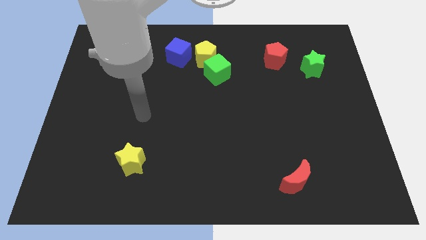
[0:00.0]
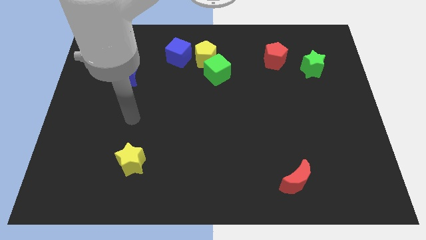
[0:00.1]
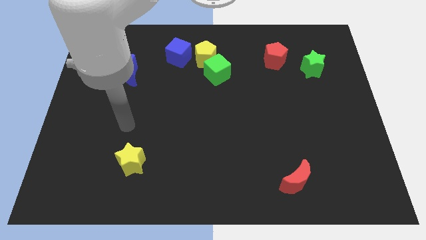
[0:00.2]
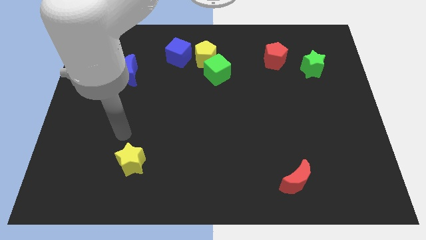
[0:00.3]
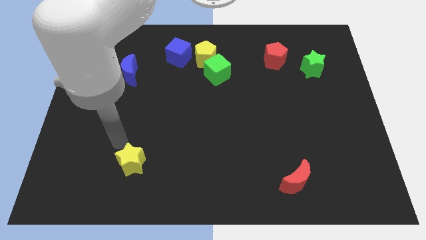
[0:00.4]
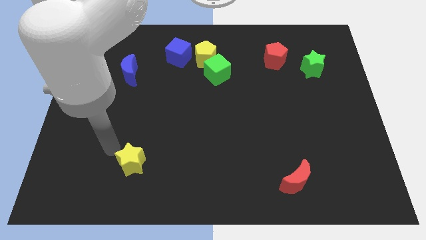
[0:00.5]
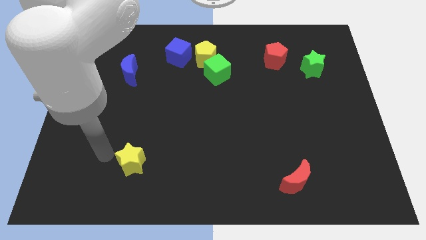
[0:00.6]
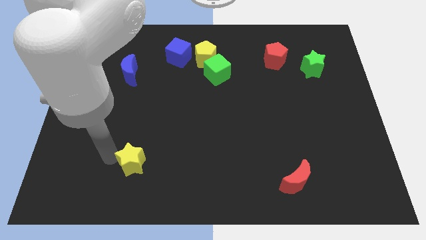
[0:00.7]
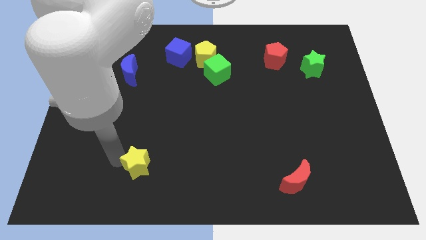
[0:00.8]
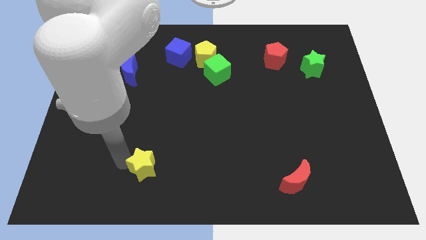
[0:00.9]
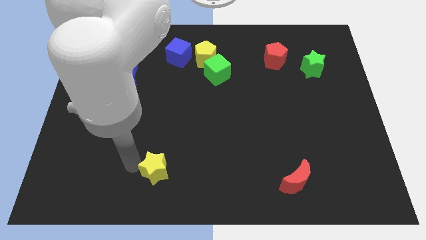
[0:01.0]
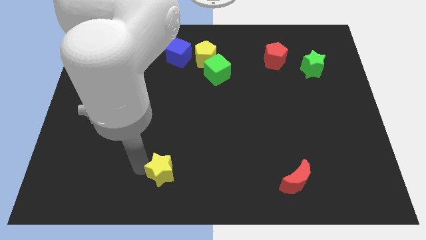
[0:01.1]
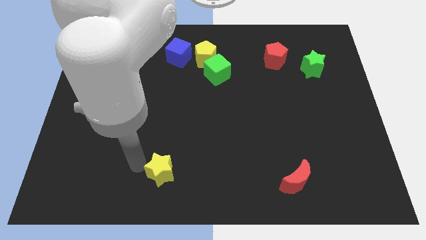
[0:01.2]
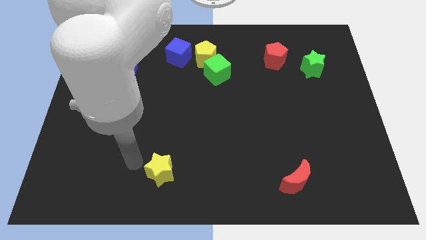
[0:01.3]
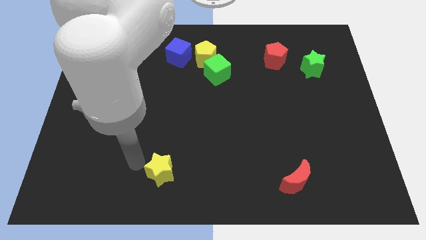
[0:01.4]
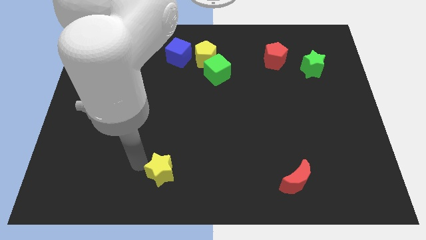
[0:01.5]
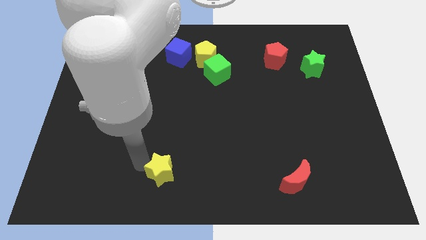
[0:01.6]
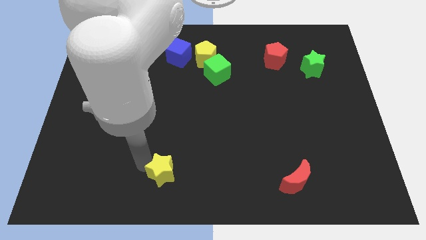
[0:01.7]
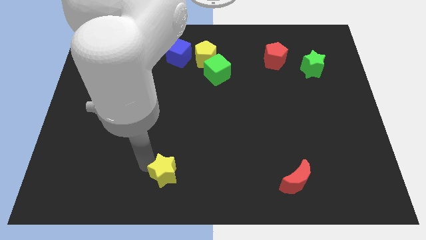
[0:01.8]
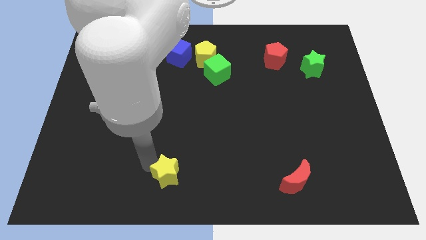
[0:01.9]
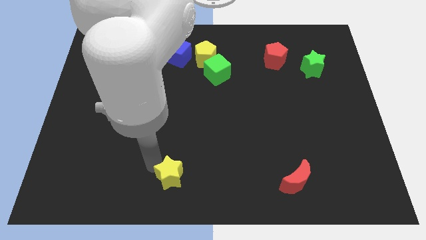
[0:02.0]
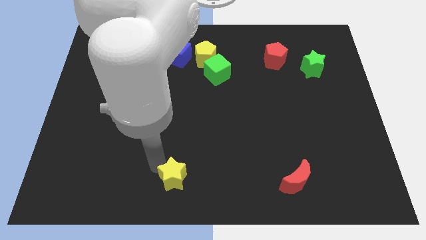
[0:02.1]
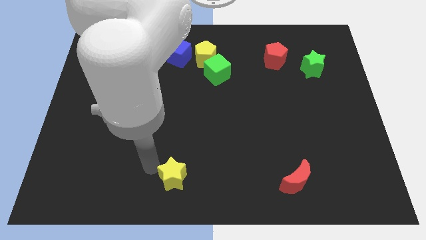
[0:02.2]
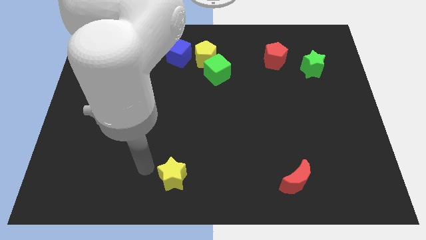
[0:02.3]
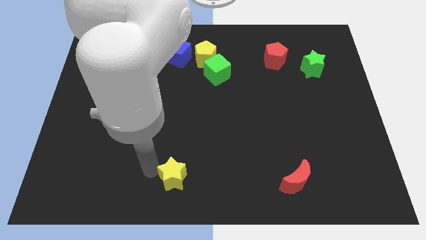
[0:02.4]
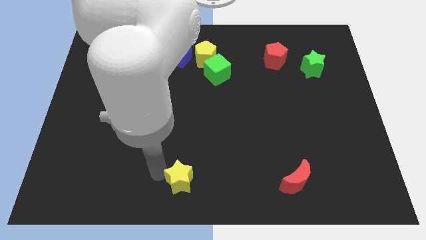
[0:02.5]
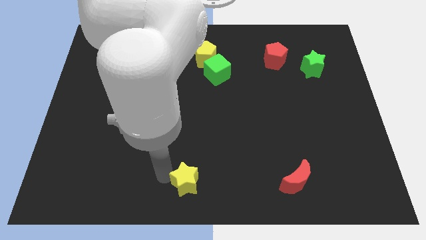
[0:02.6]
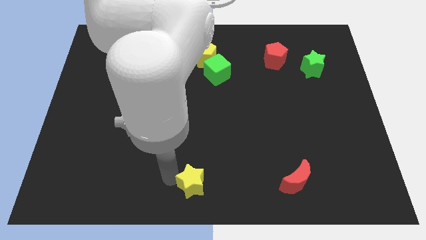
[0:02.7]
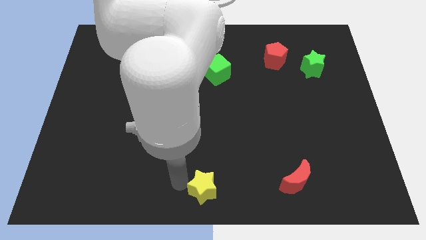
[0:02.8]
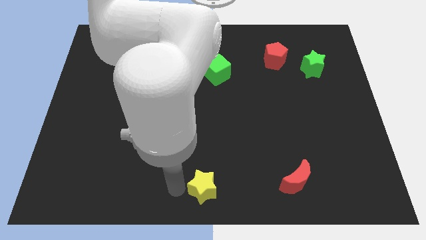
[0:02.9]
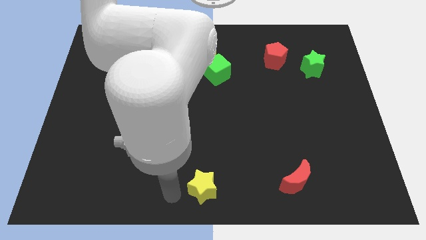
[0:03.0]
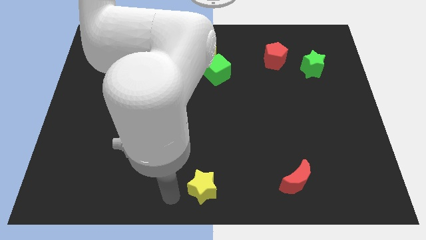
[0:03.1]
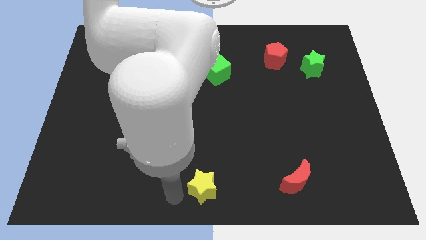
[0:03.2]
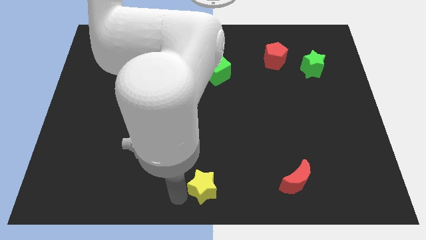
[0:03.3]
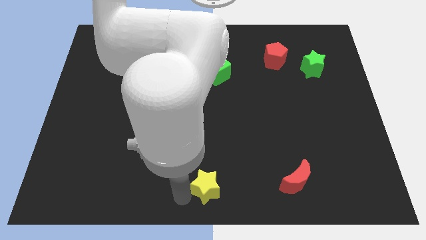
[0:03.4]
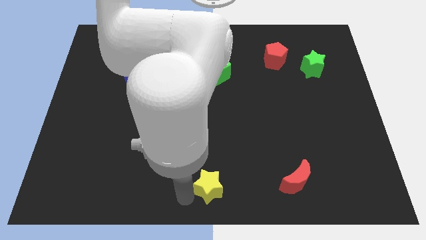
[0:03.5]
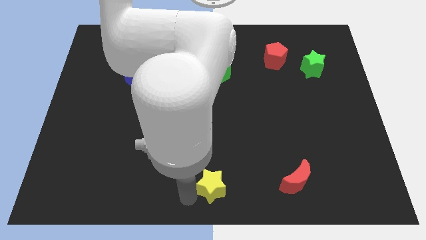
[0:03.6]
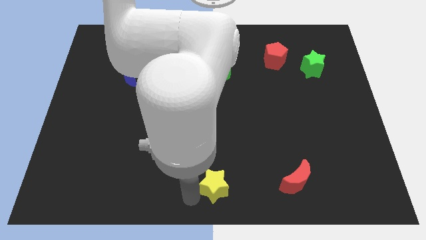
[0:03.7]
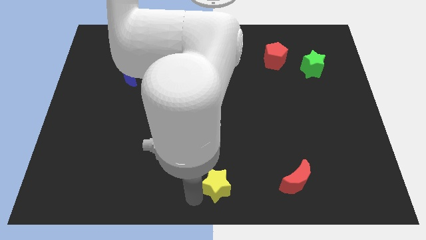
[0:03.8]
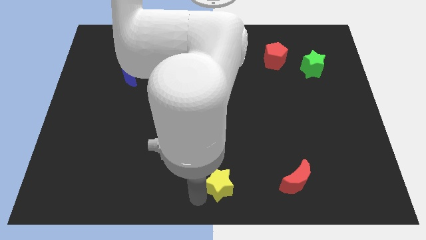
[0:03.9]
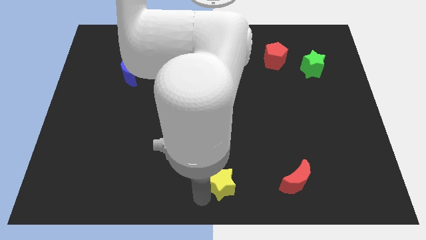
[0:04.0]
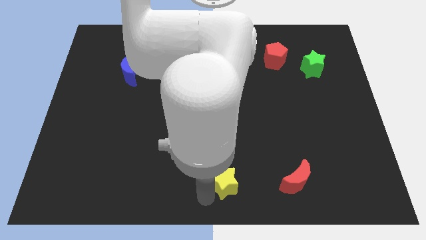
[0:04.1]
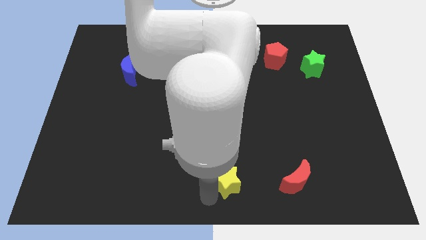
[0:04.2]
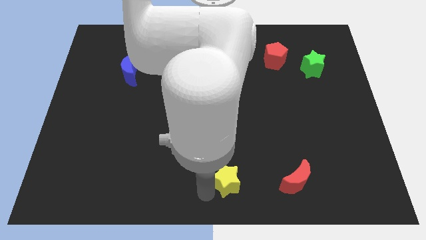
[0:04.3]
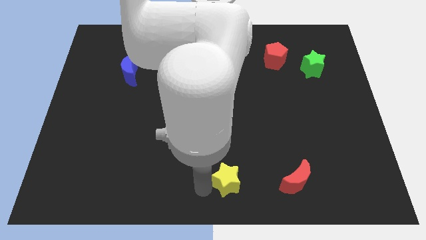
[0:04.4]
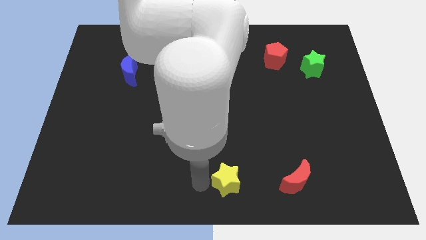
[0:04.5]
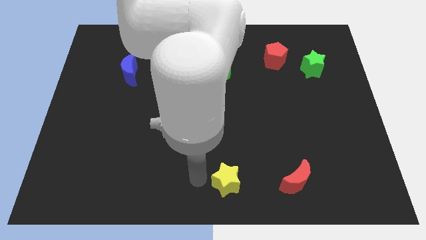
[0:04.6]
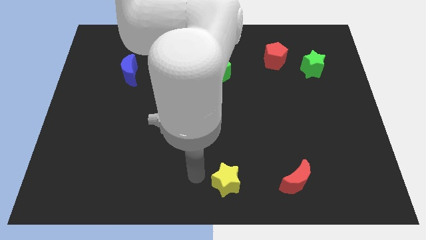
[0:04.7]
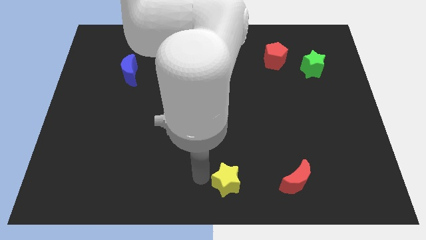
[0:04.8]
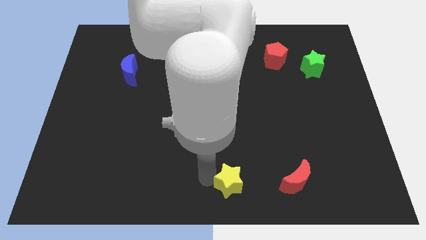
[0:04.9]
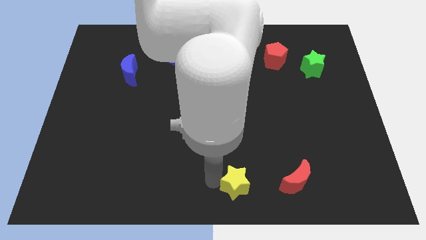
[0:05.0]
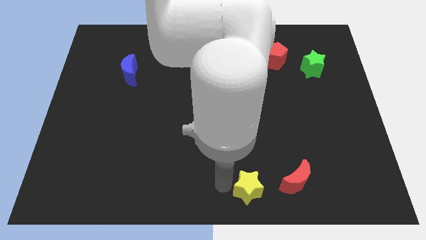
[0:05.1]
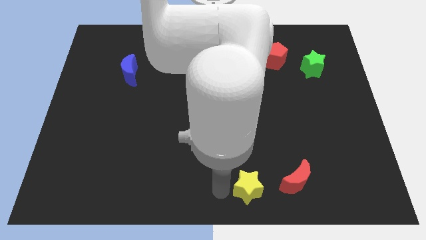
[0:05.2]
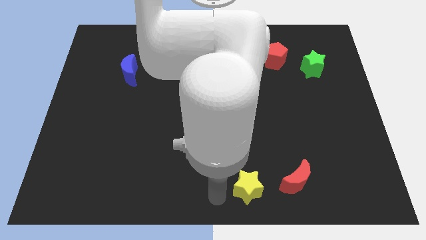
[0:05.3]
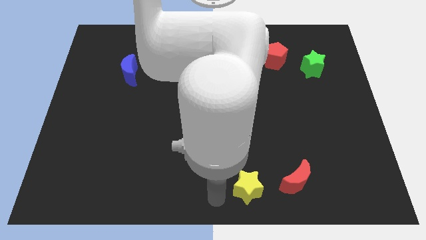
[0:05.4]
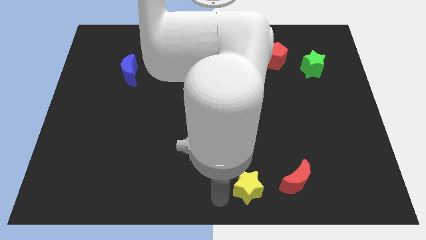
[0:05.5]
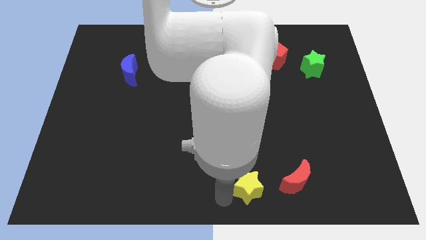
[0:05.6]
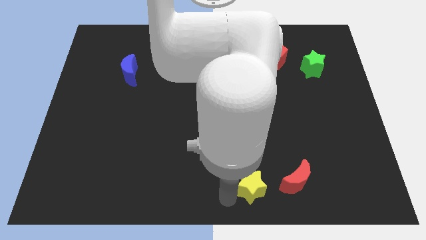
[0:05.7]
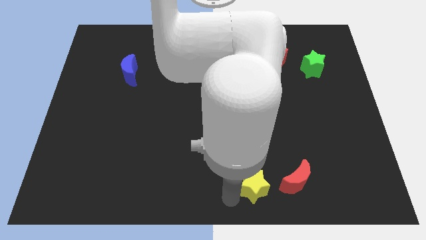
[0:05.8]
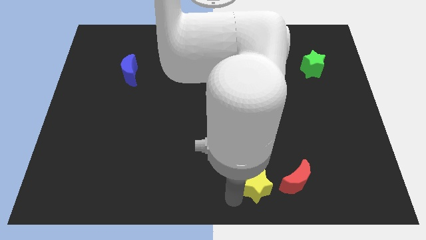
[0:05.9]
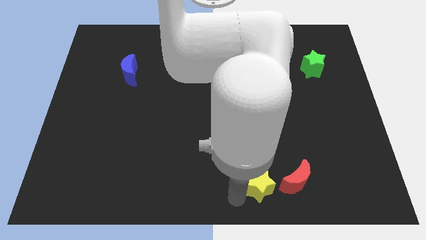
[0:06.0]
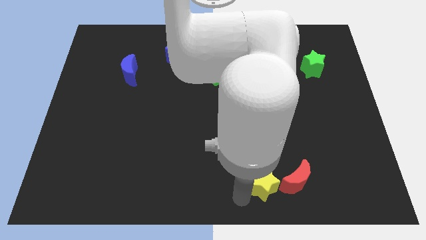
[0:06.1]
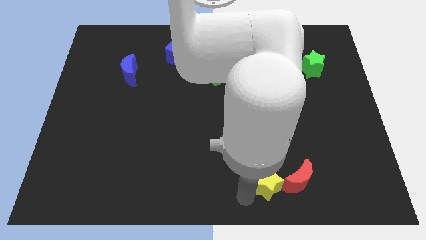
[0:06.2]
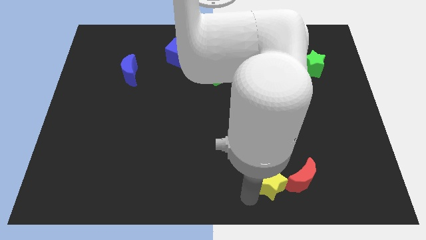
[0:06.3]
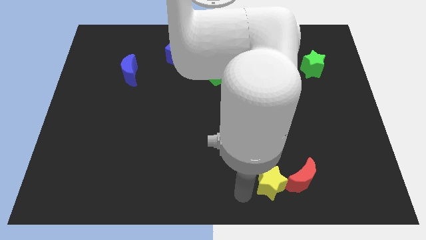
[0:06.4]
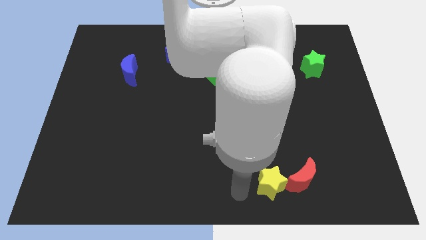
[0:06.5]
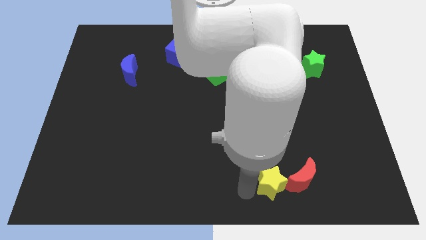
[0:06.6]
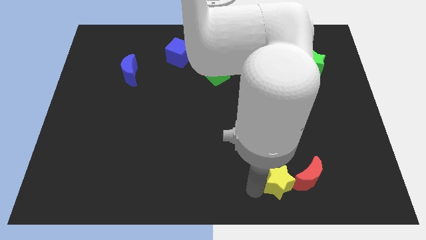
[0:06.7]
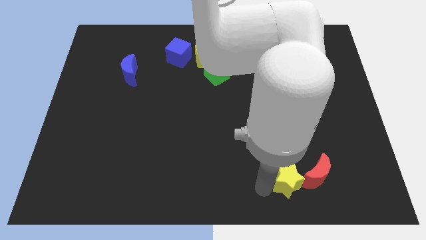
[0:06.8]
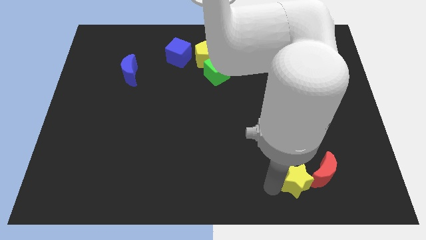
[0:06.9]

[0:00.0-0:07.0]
slide the yellow star close to the red moon

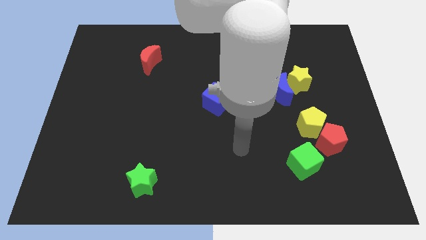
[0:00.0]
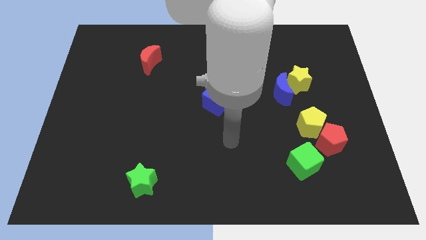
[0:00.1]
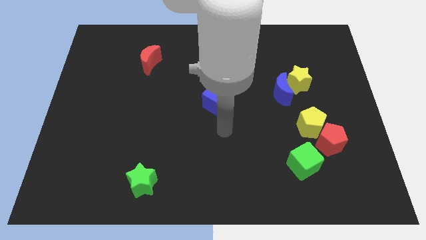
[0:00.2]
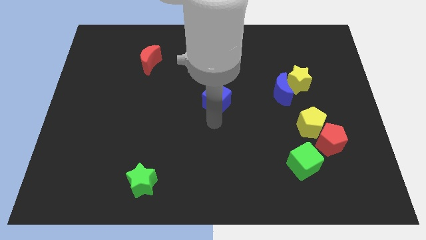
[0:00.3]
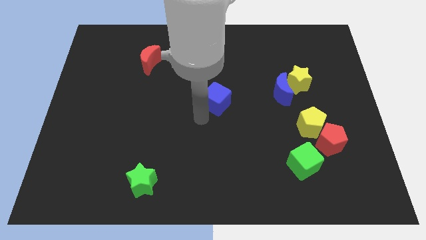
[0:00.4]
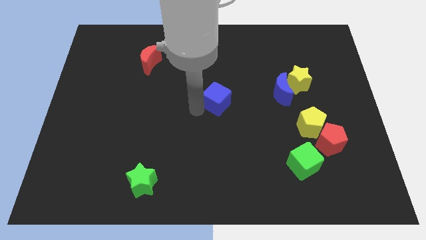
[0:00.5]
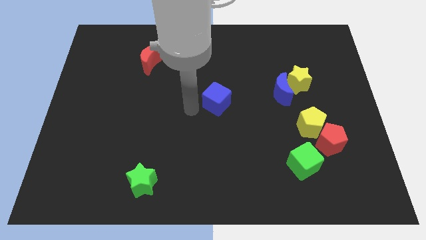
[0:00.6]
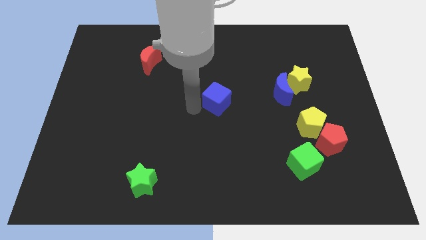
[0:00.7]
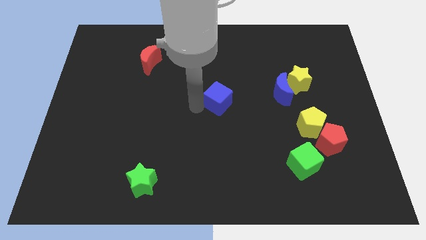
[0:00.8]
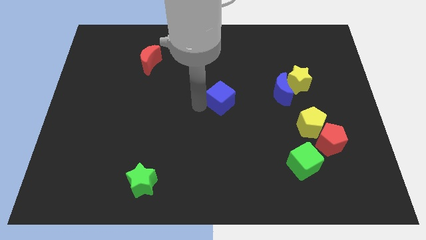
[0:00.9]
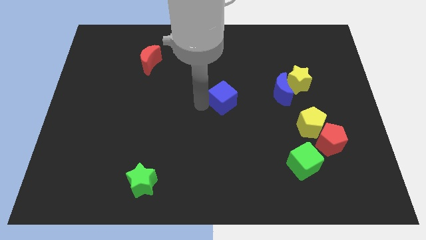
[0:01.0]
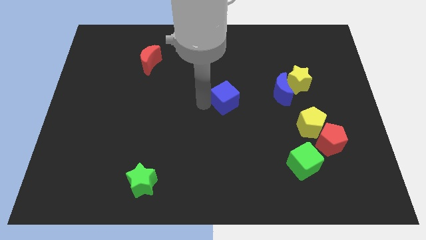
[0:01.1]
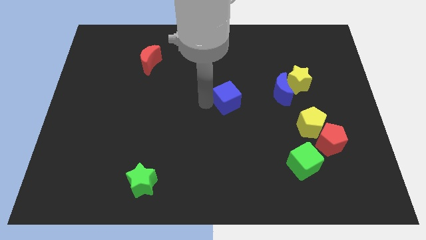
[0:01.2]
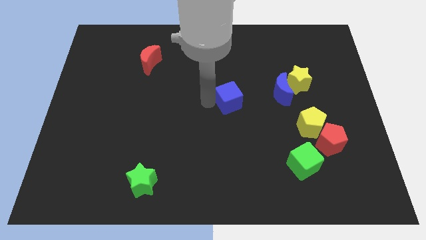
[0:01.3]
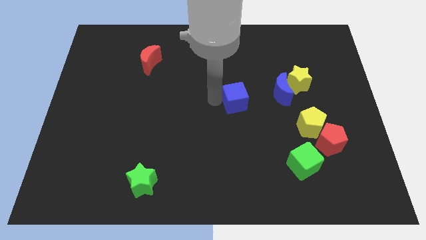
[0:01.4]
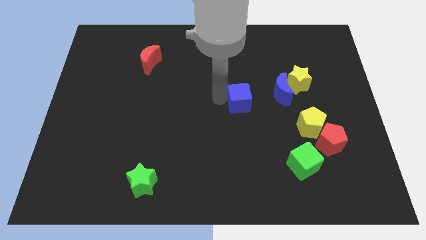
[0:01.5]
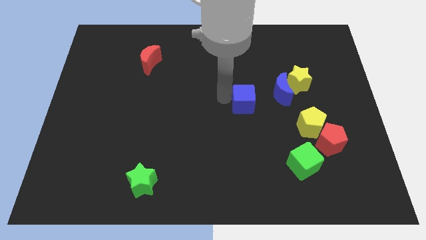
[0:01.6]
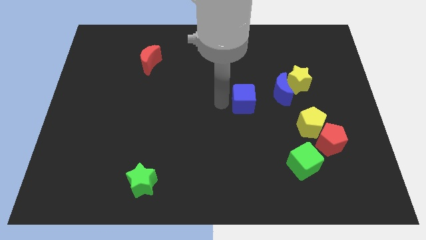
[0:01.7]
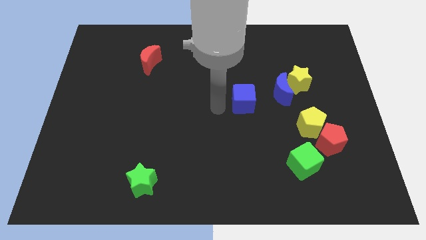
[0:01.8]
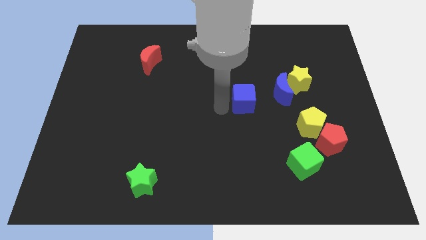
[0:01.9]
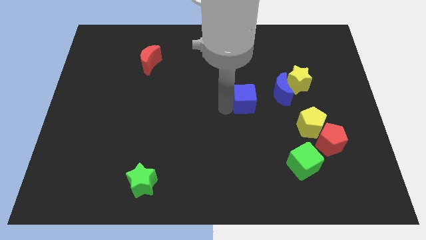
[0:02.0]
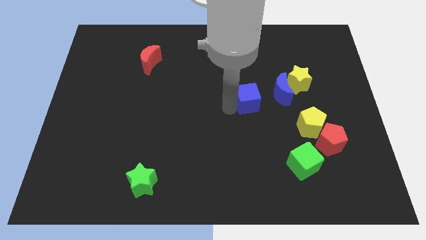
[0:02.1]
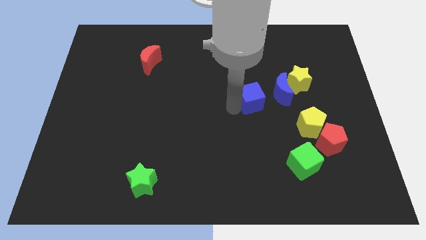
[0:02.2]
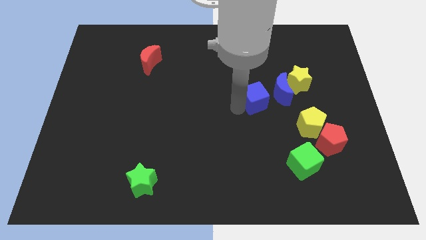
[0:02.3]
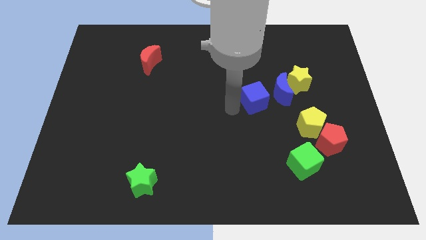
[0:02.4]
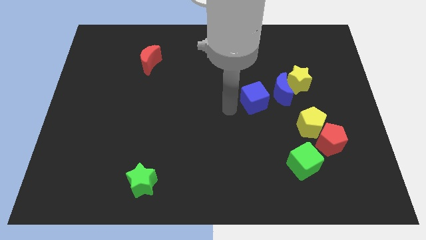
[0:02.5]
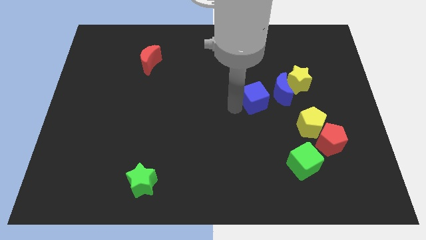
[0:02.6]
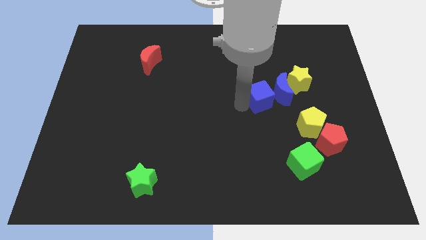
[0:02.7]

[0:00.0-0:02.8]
slide the blue cube next to the blue moon
